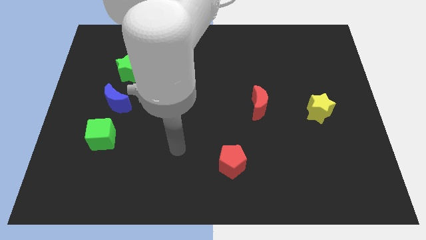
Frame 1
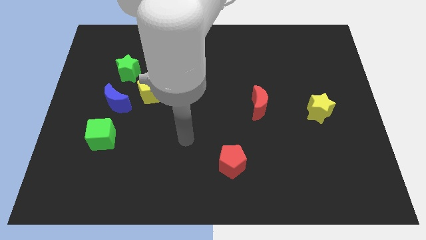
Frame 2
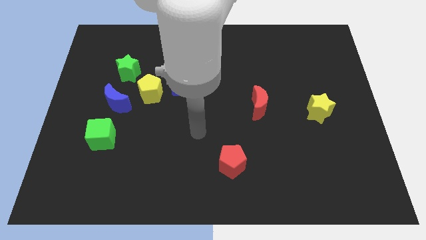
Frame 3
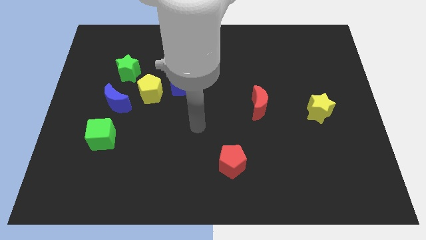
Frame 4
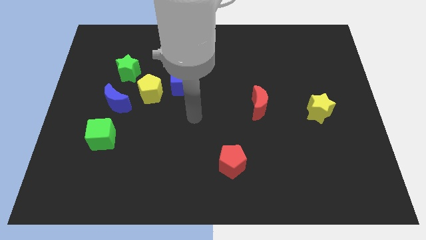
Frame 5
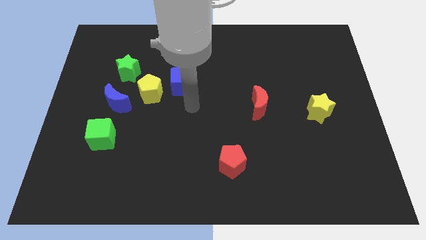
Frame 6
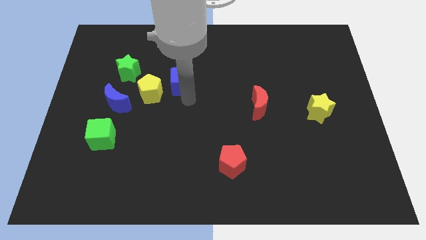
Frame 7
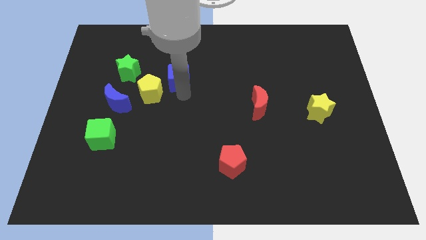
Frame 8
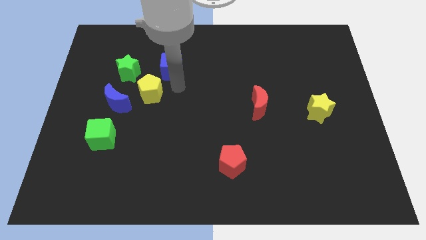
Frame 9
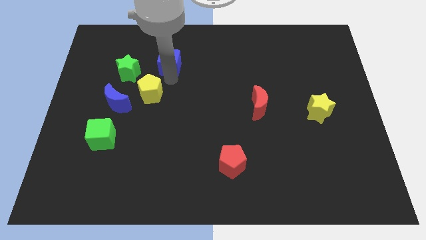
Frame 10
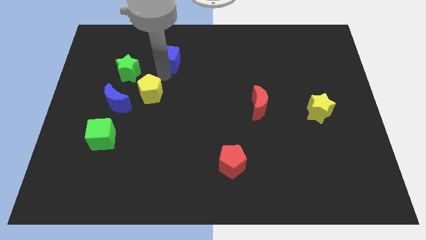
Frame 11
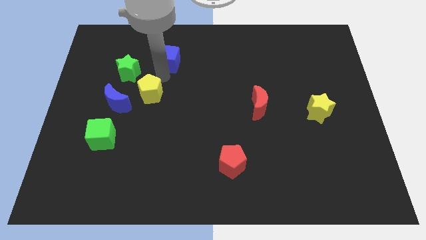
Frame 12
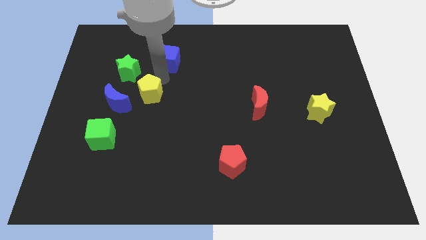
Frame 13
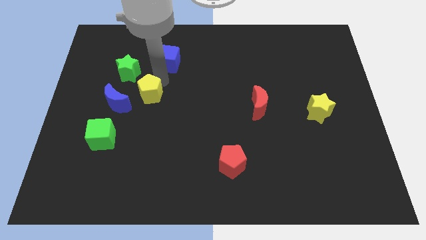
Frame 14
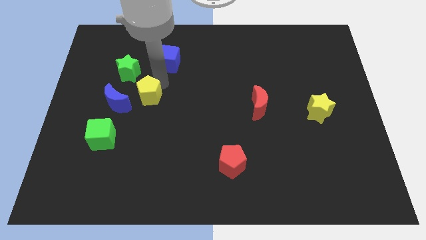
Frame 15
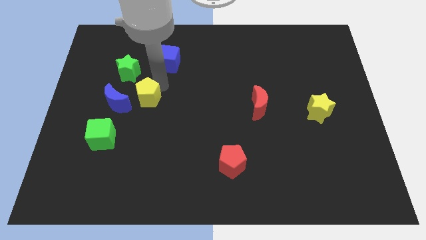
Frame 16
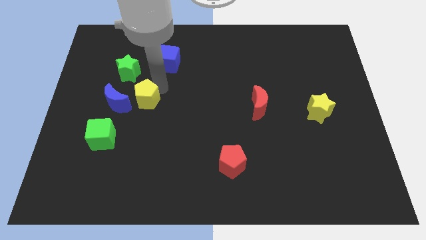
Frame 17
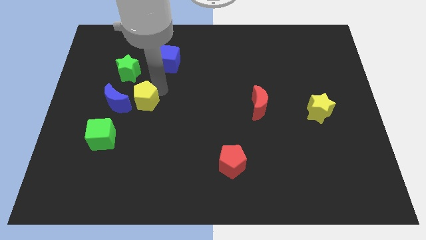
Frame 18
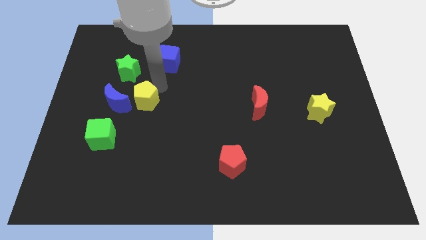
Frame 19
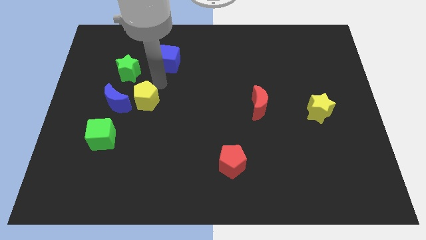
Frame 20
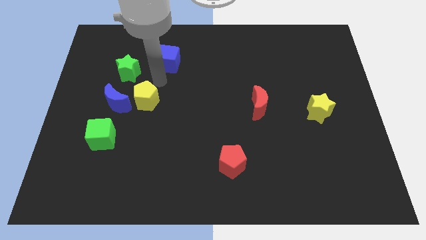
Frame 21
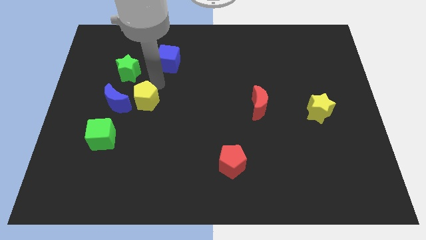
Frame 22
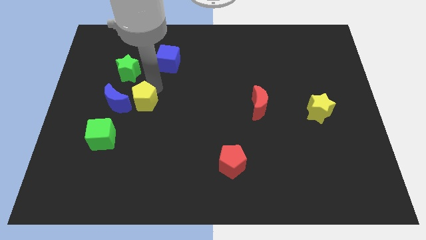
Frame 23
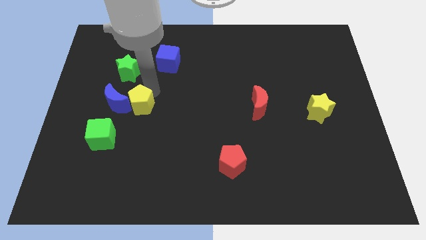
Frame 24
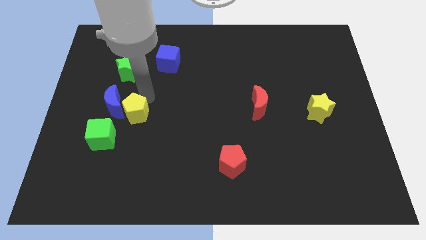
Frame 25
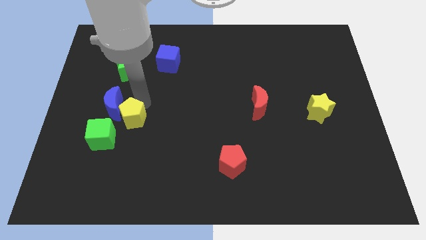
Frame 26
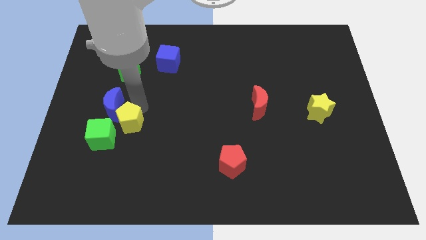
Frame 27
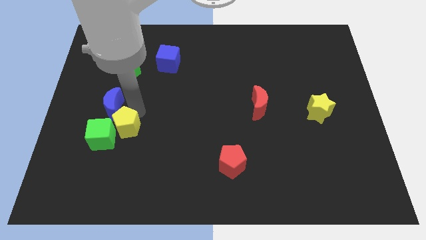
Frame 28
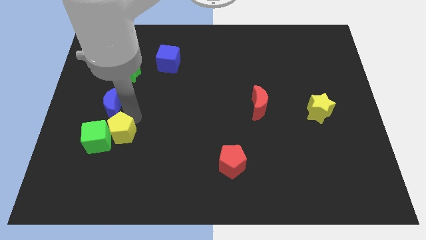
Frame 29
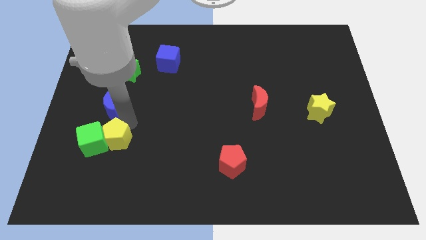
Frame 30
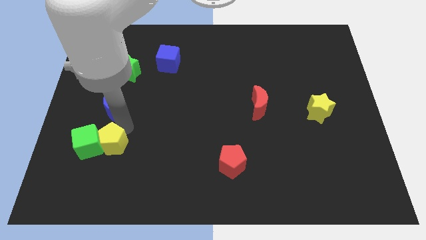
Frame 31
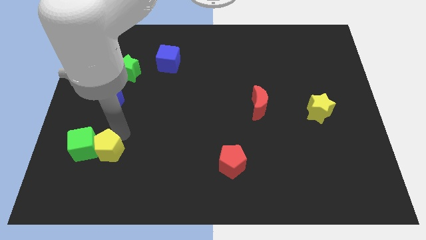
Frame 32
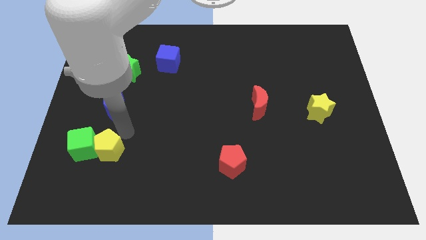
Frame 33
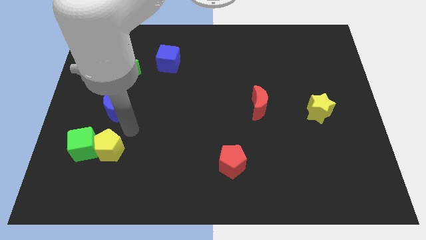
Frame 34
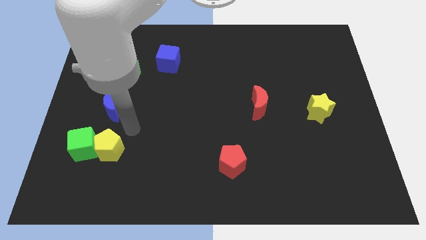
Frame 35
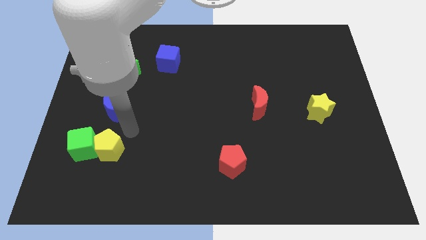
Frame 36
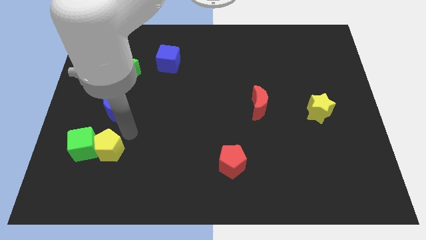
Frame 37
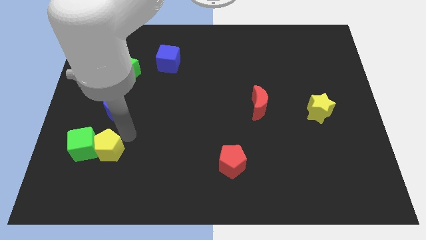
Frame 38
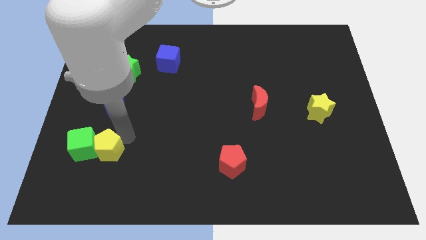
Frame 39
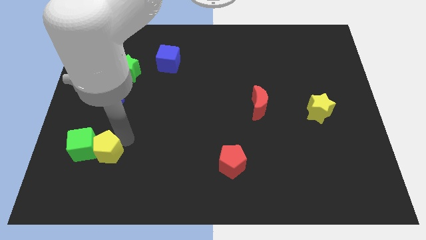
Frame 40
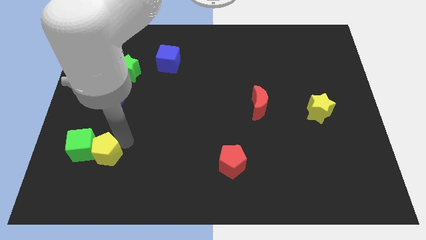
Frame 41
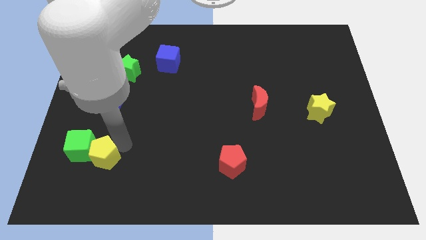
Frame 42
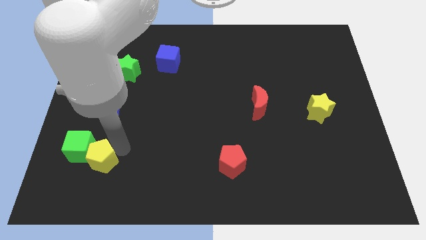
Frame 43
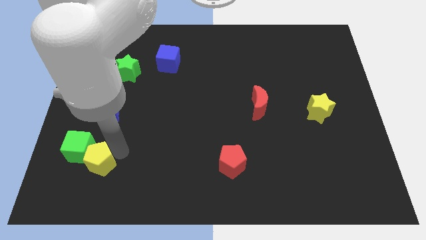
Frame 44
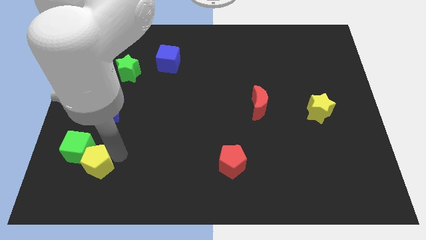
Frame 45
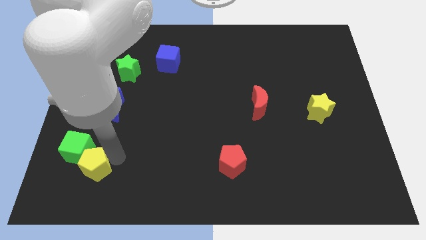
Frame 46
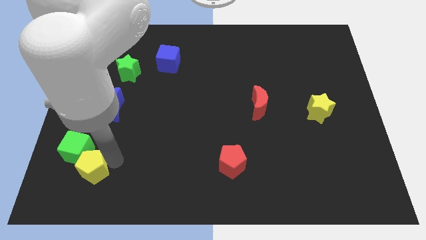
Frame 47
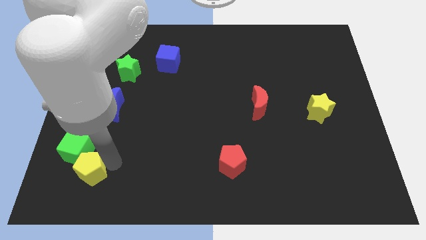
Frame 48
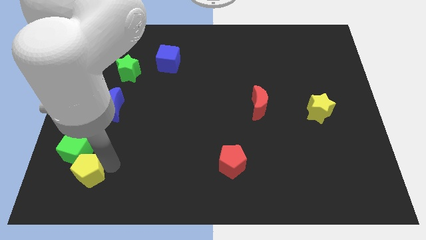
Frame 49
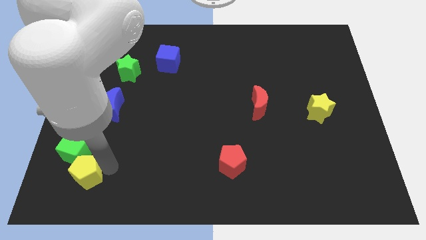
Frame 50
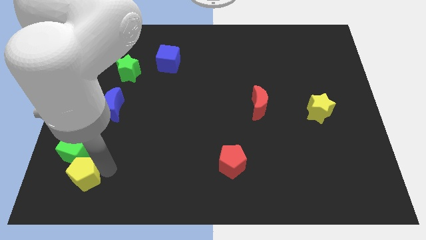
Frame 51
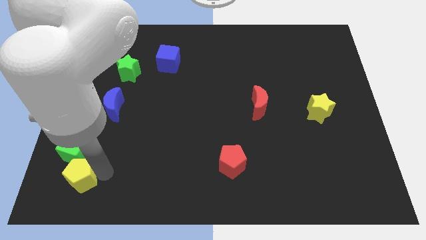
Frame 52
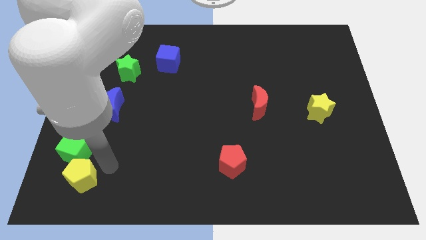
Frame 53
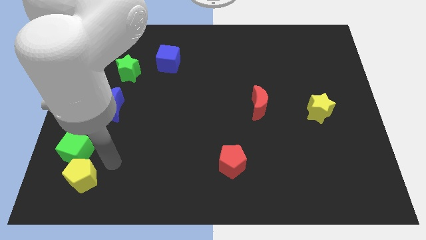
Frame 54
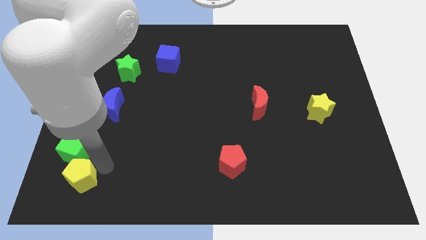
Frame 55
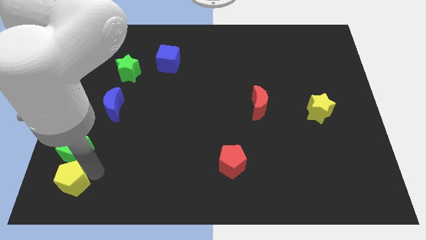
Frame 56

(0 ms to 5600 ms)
put the yellow pentagon to the bottom left of the board
